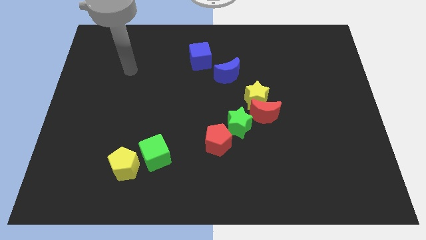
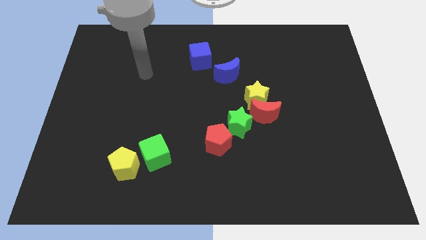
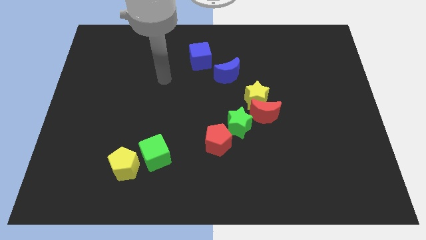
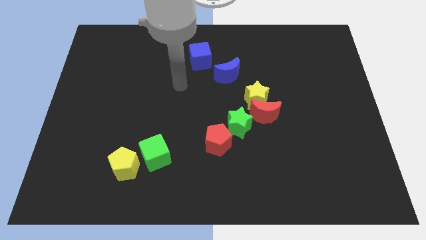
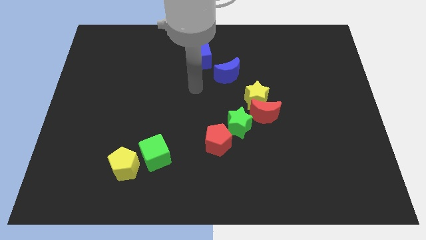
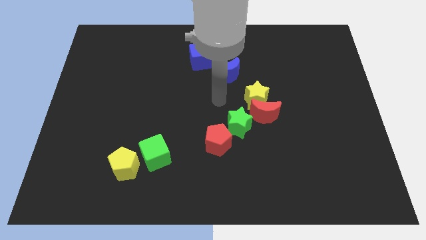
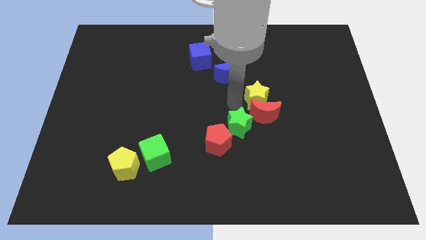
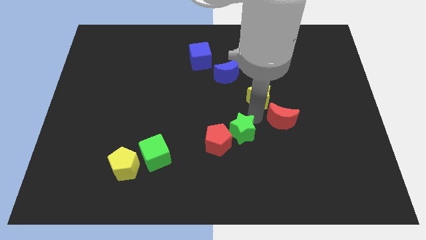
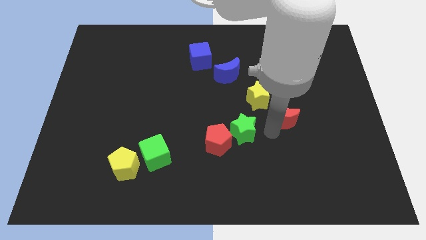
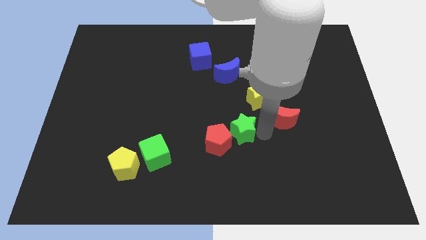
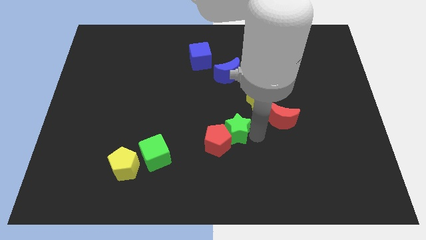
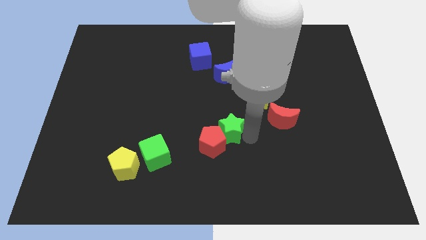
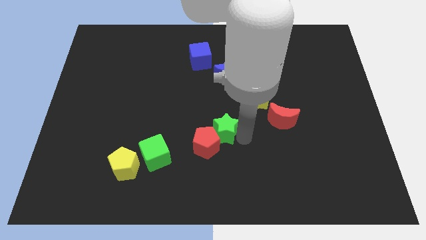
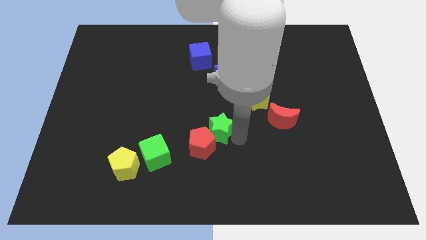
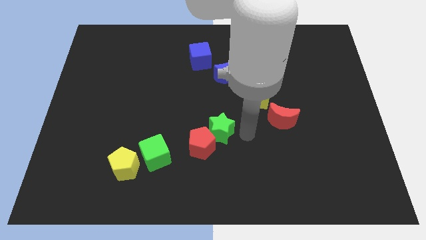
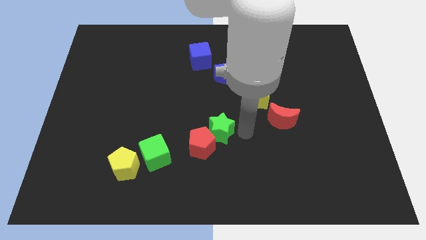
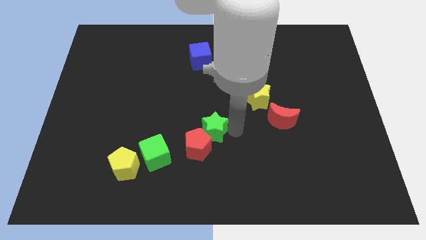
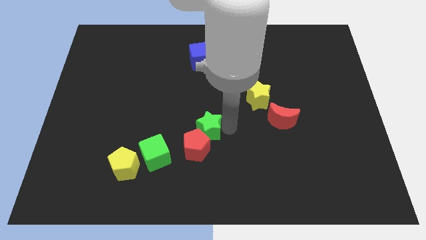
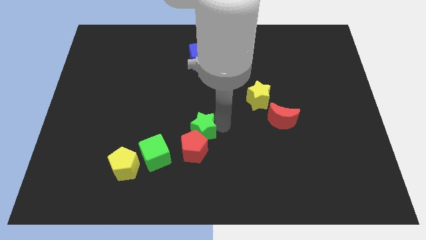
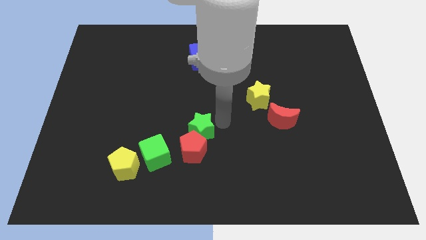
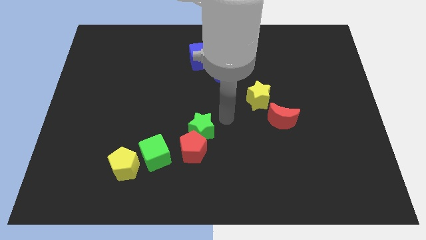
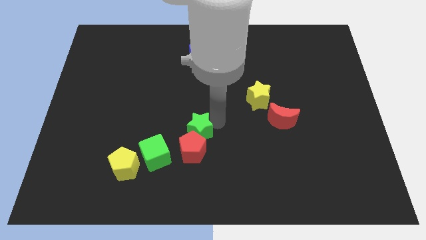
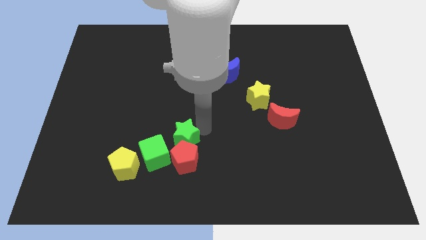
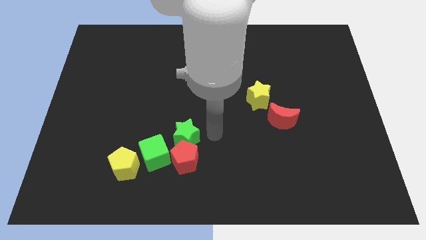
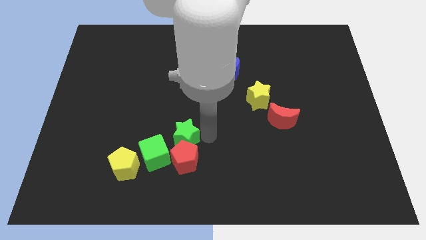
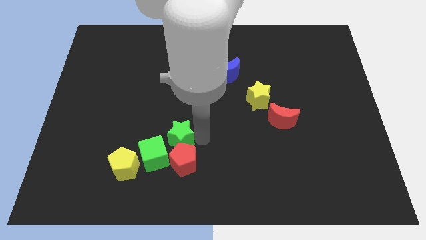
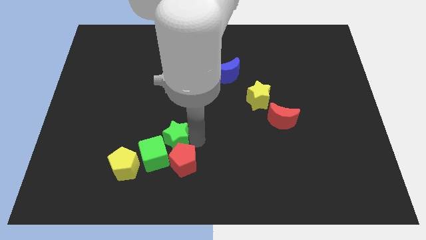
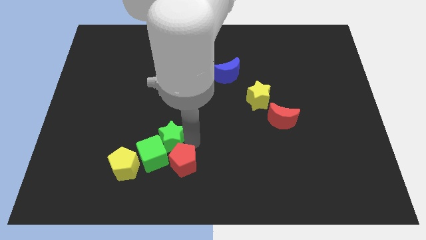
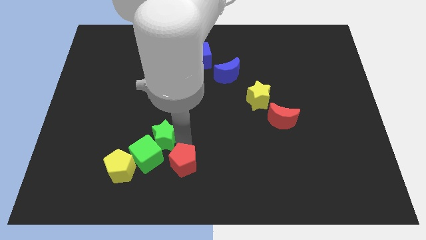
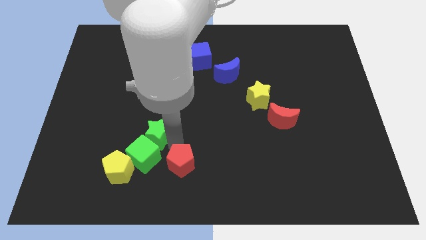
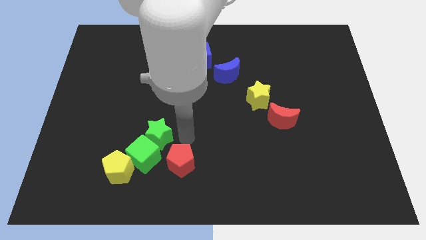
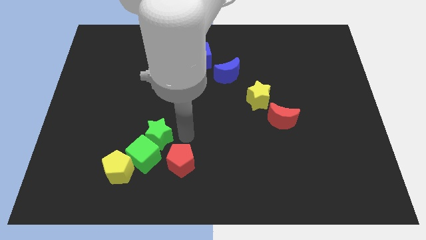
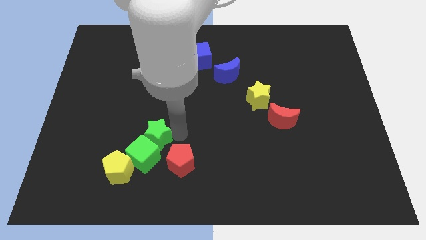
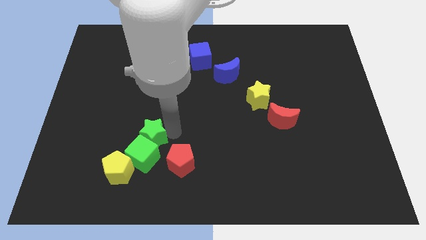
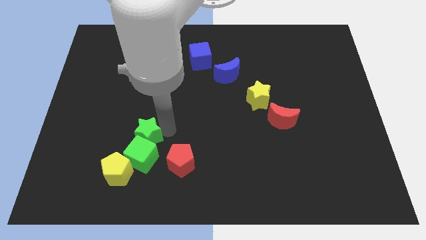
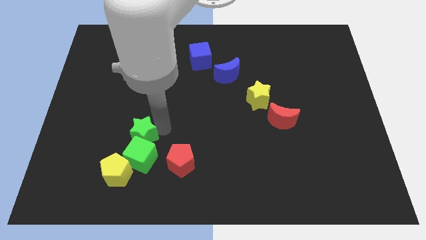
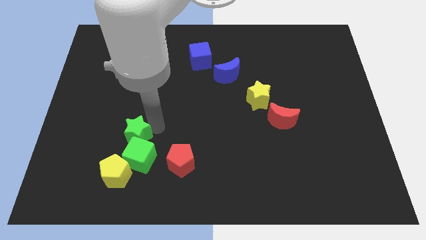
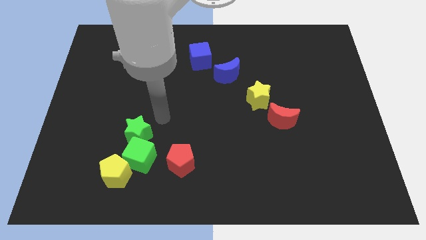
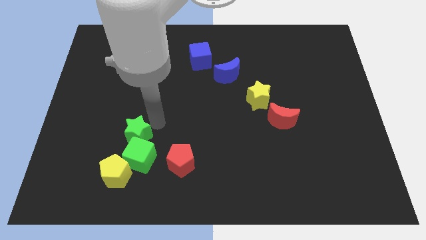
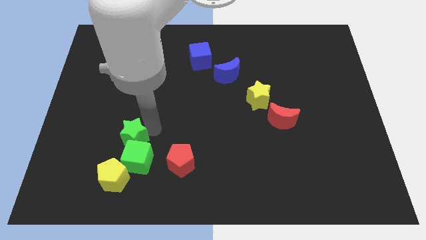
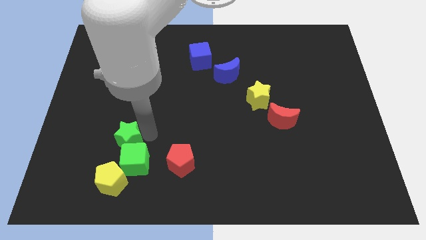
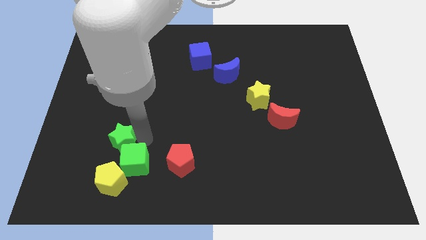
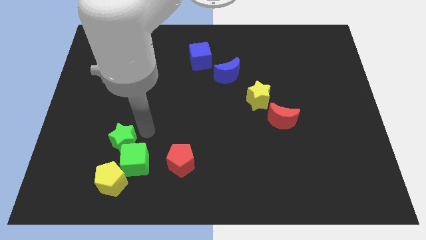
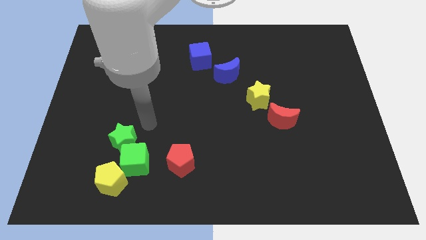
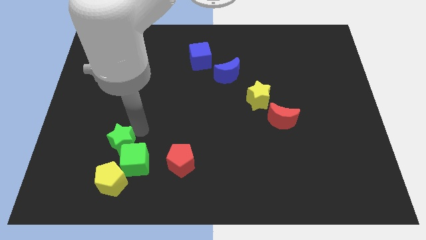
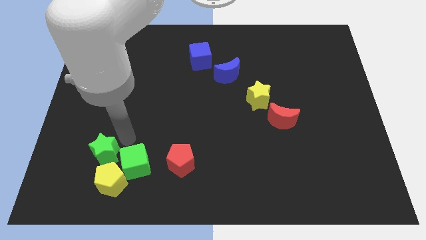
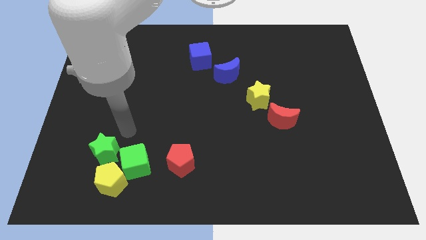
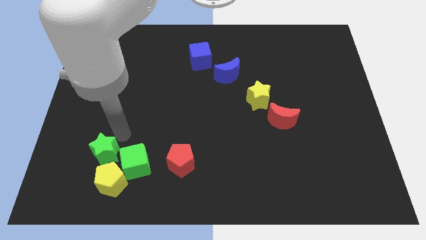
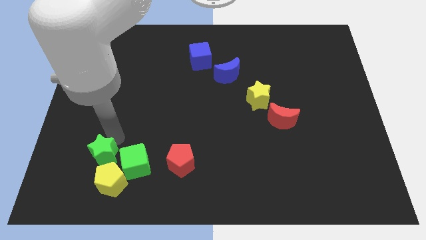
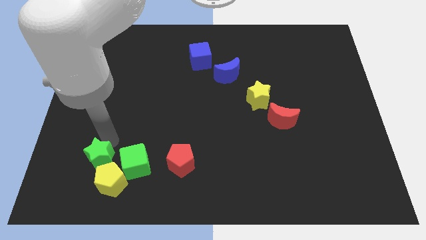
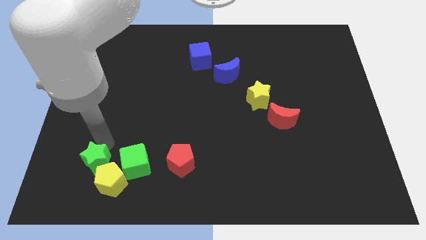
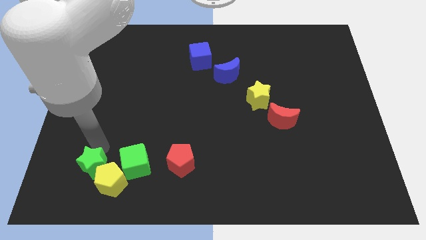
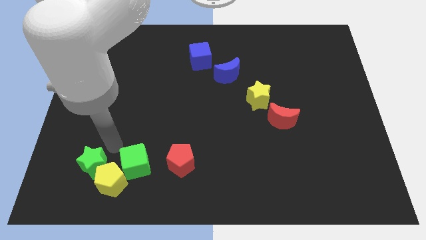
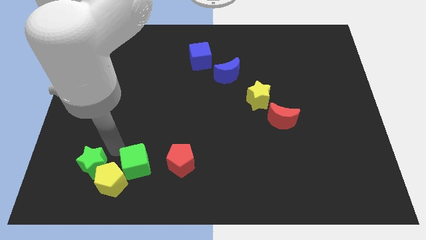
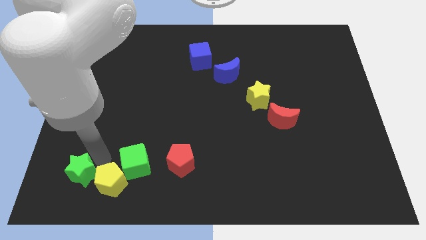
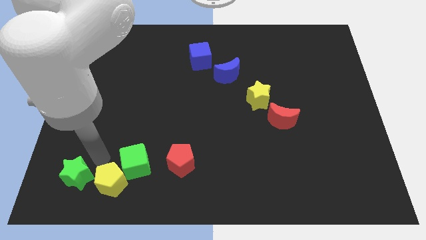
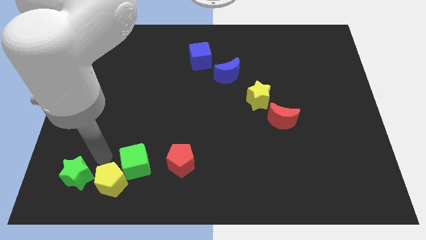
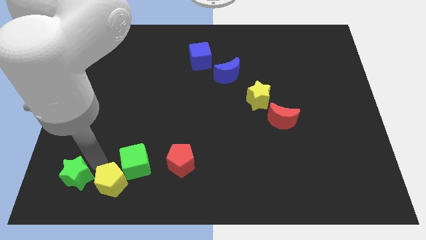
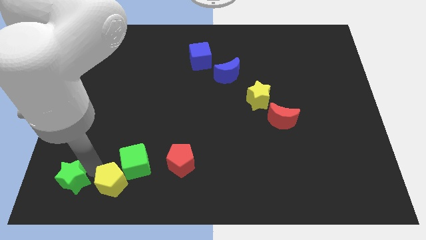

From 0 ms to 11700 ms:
move the green star to the bottom left
